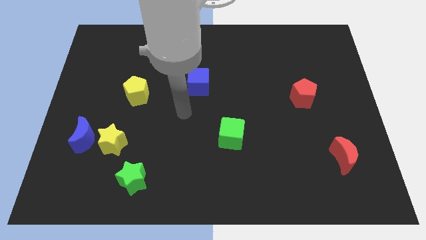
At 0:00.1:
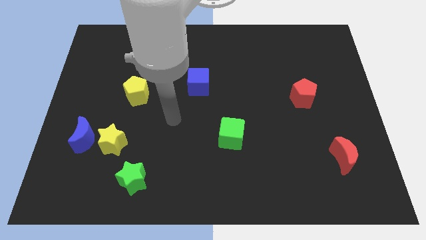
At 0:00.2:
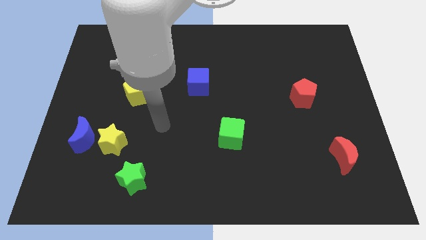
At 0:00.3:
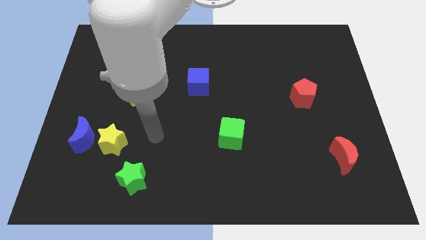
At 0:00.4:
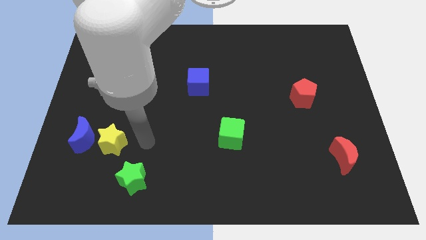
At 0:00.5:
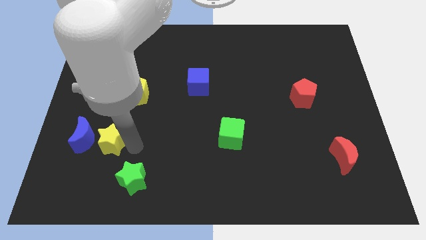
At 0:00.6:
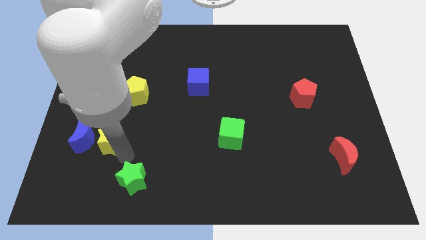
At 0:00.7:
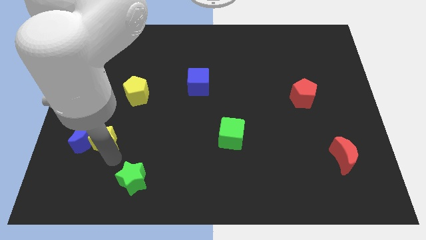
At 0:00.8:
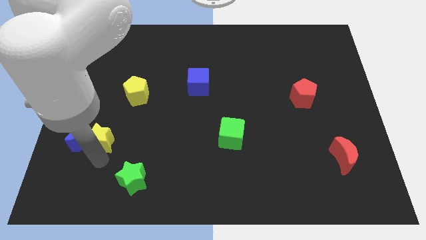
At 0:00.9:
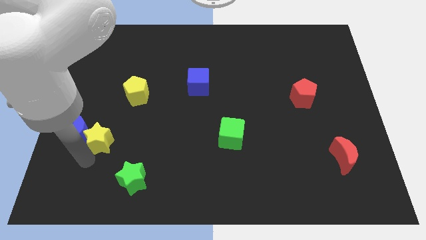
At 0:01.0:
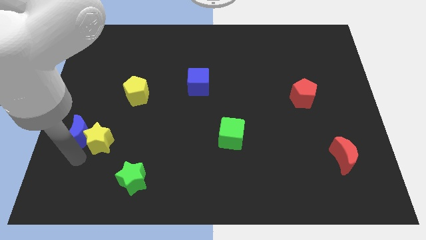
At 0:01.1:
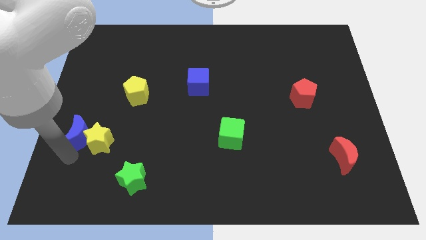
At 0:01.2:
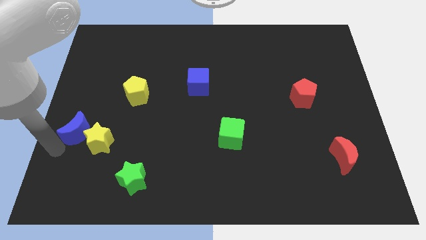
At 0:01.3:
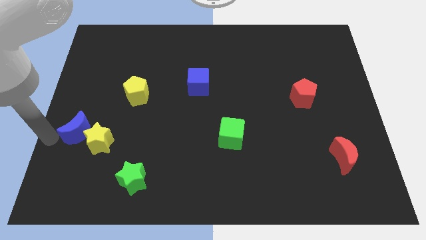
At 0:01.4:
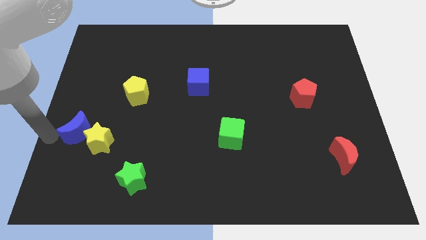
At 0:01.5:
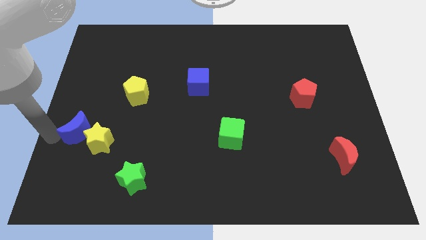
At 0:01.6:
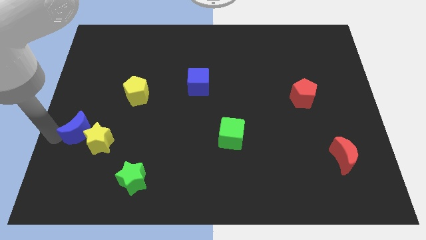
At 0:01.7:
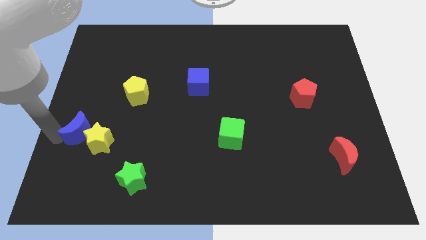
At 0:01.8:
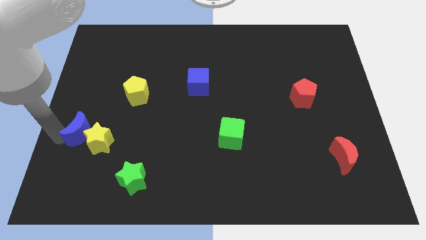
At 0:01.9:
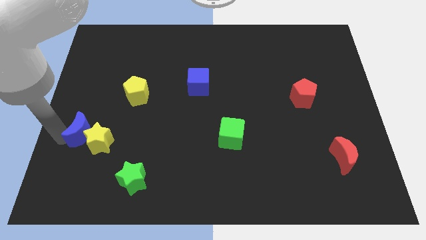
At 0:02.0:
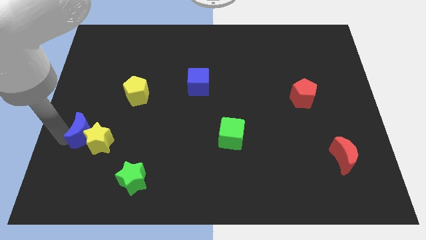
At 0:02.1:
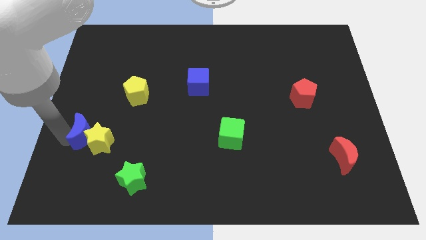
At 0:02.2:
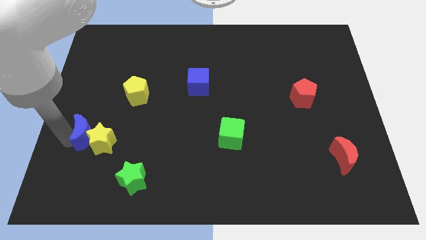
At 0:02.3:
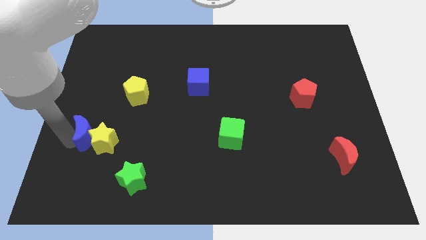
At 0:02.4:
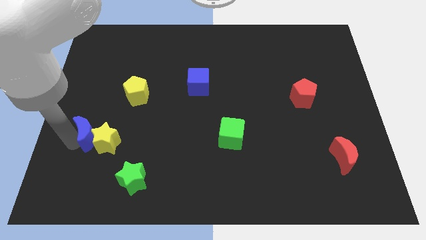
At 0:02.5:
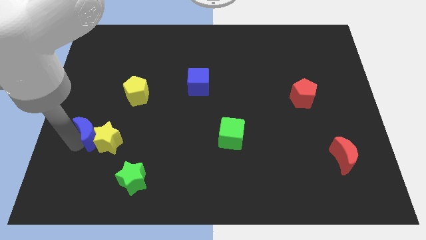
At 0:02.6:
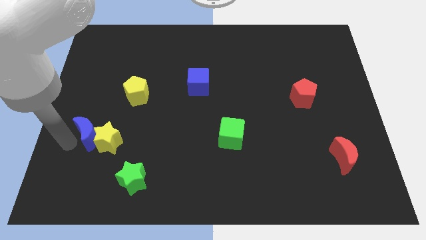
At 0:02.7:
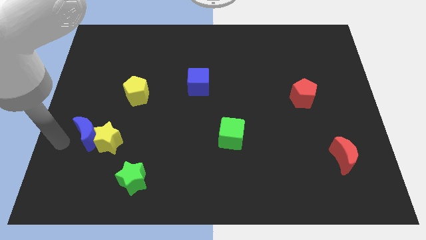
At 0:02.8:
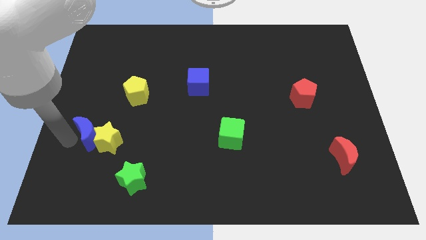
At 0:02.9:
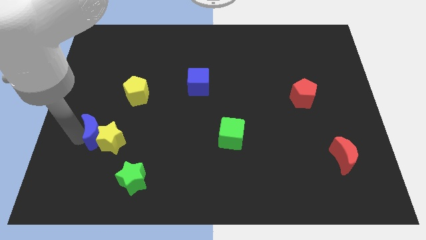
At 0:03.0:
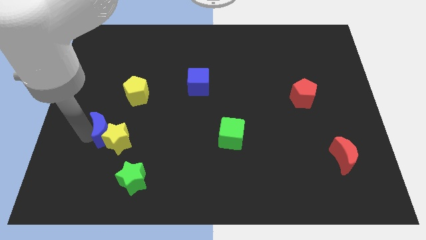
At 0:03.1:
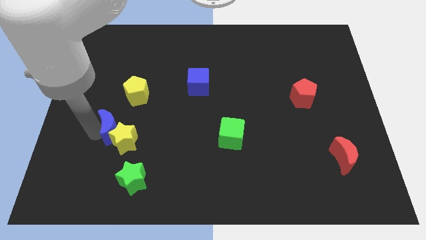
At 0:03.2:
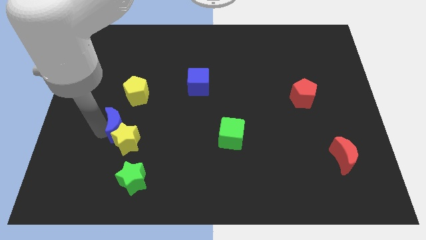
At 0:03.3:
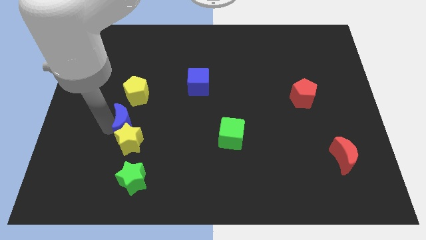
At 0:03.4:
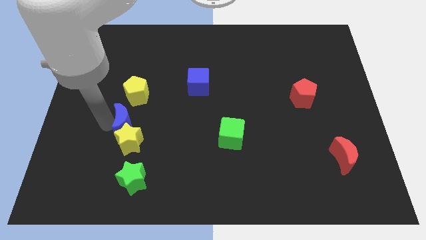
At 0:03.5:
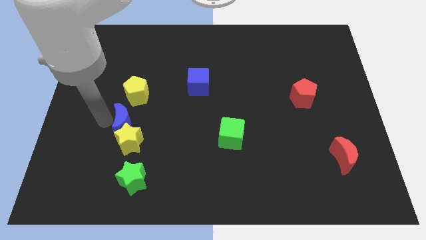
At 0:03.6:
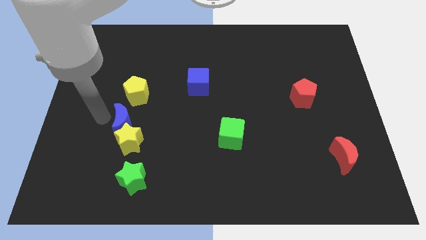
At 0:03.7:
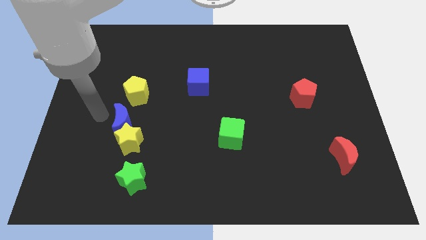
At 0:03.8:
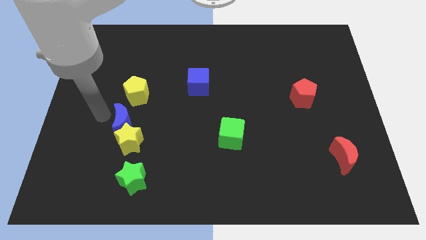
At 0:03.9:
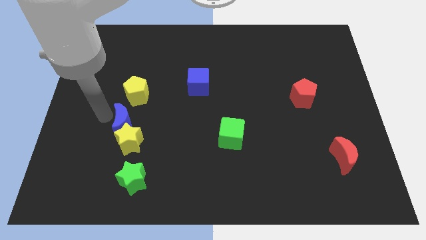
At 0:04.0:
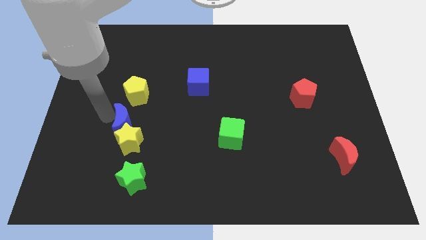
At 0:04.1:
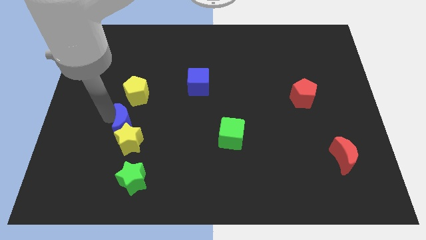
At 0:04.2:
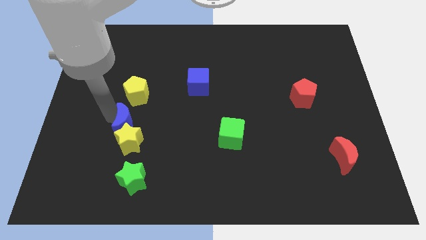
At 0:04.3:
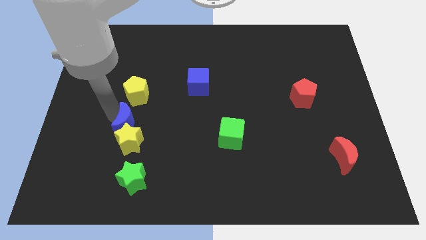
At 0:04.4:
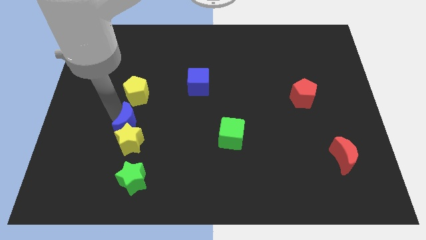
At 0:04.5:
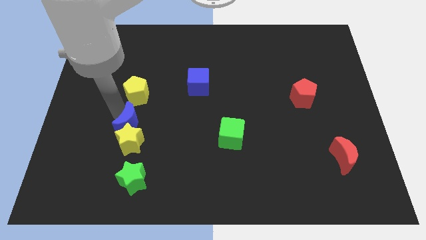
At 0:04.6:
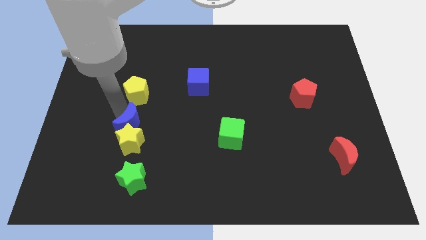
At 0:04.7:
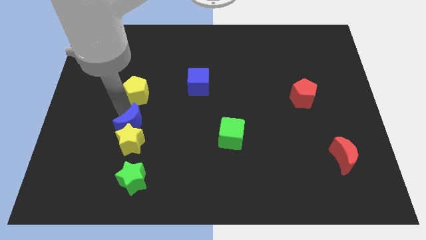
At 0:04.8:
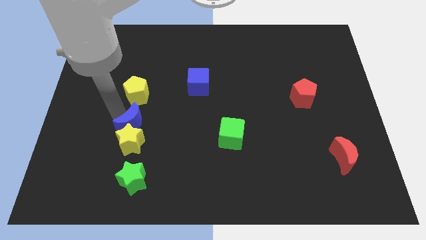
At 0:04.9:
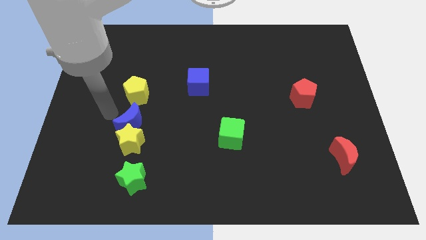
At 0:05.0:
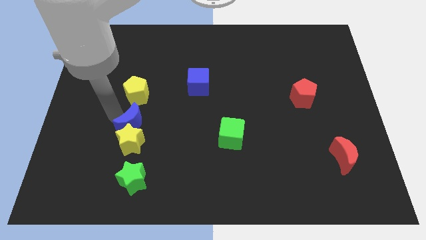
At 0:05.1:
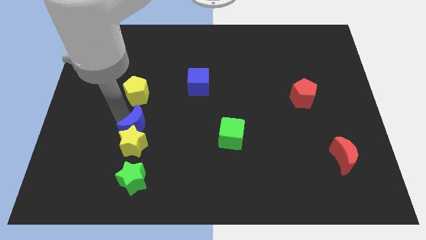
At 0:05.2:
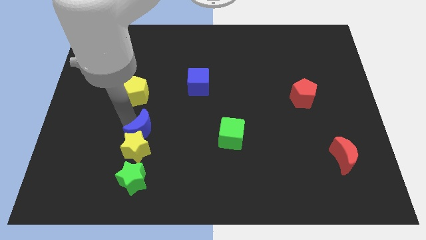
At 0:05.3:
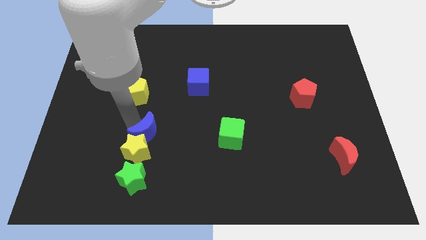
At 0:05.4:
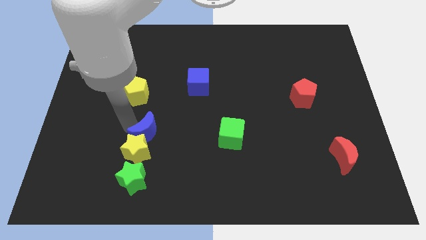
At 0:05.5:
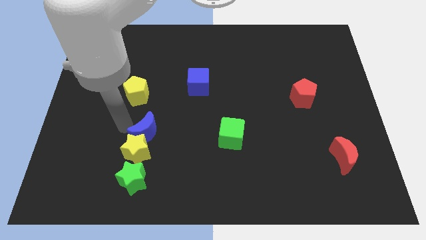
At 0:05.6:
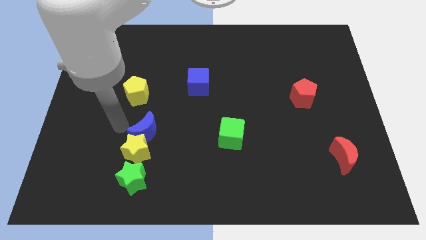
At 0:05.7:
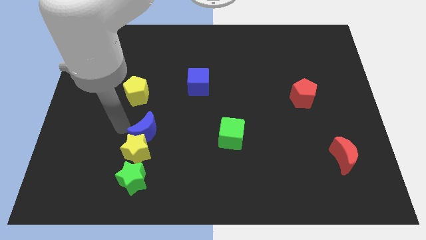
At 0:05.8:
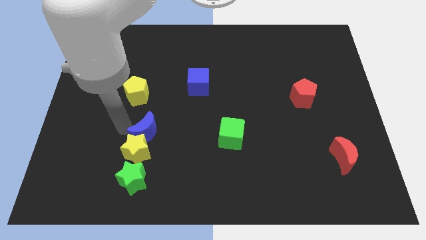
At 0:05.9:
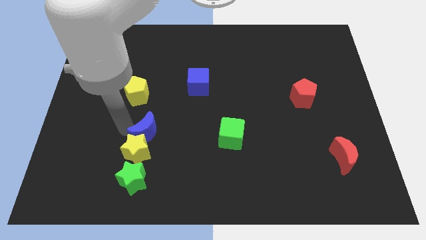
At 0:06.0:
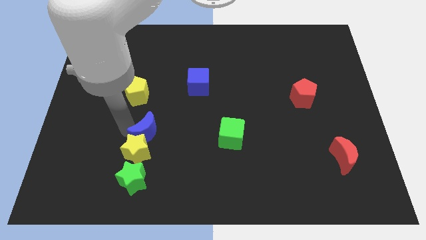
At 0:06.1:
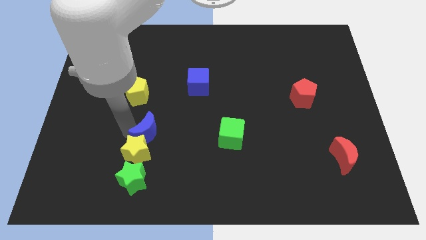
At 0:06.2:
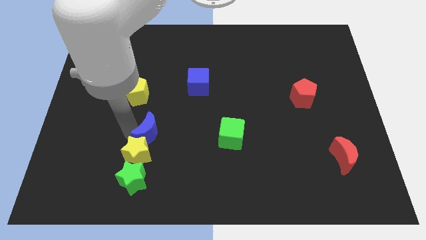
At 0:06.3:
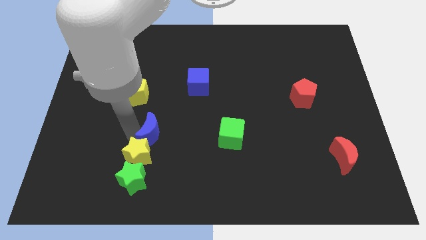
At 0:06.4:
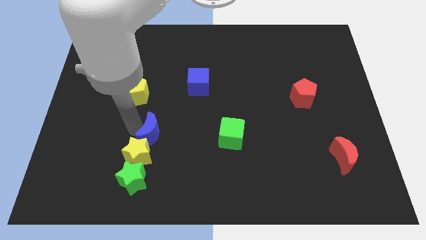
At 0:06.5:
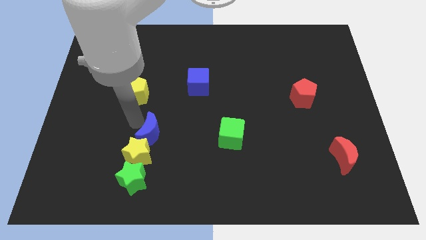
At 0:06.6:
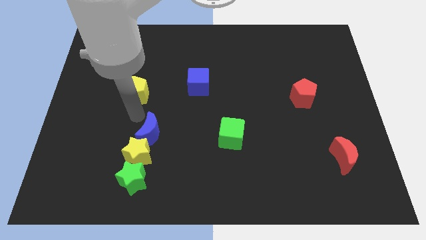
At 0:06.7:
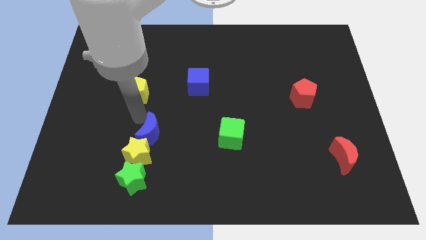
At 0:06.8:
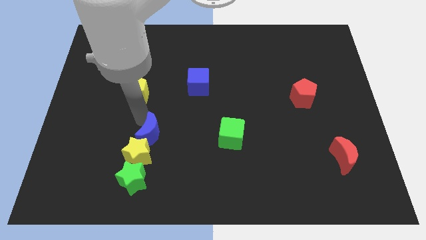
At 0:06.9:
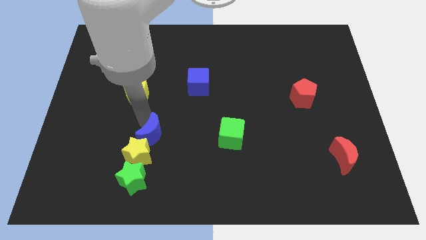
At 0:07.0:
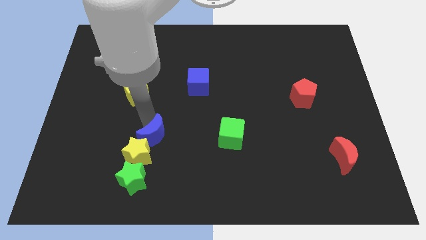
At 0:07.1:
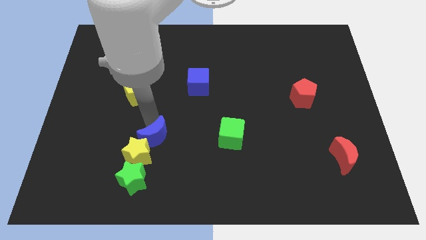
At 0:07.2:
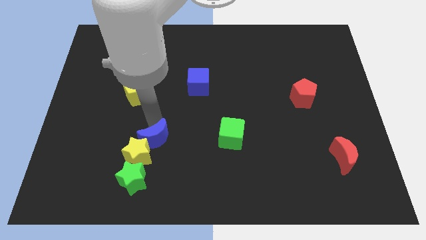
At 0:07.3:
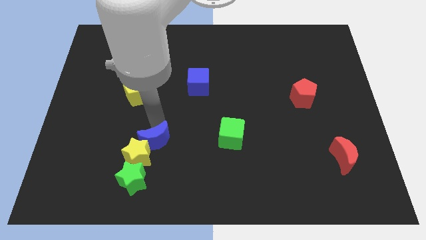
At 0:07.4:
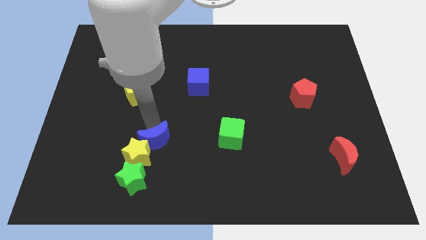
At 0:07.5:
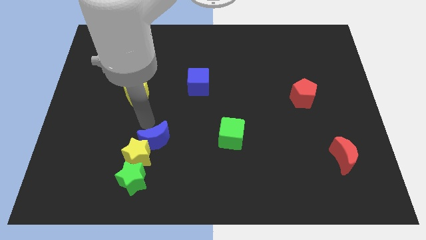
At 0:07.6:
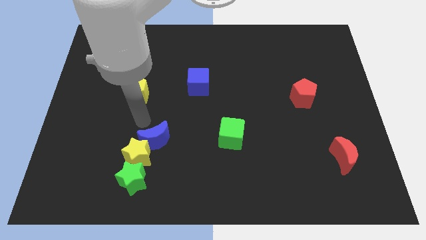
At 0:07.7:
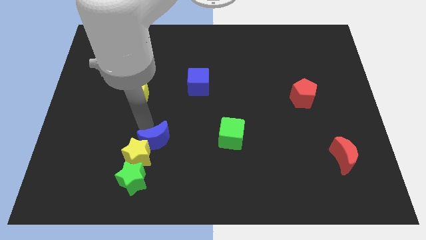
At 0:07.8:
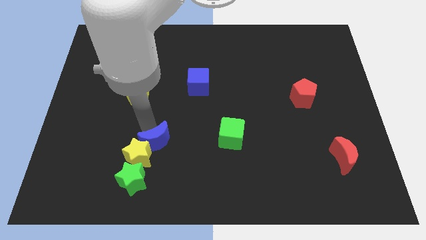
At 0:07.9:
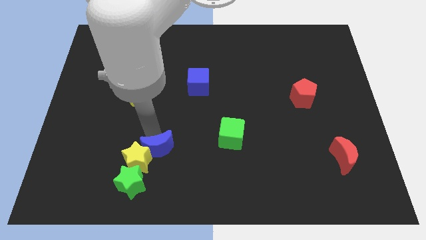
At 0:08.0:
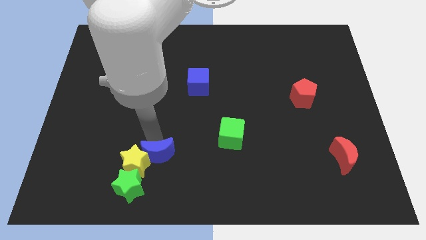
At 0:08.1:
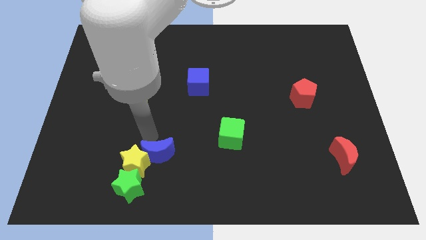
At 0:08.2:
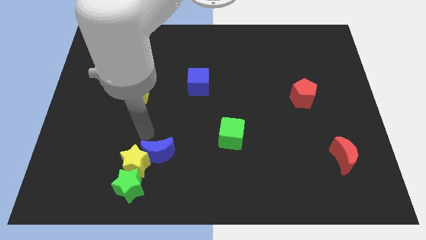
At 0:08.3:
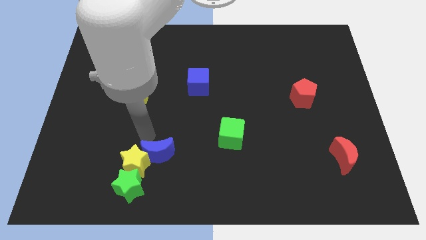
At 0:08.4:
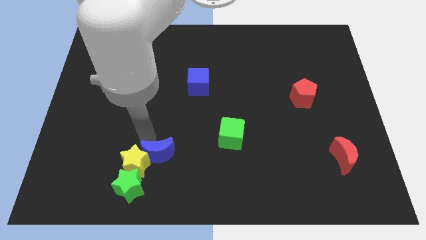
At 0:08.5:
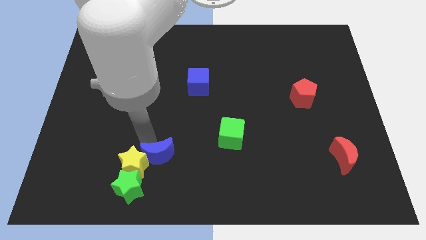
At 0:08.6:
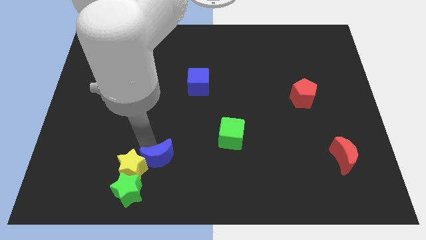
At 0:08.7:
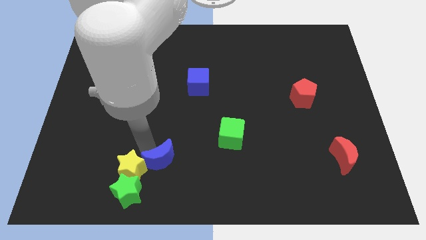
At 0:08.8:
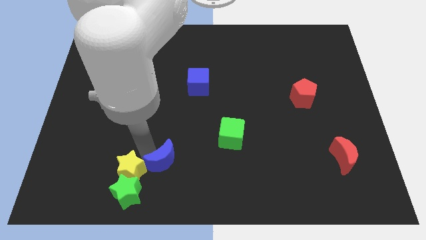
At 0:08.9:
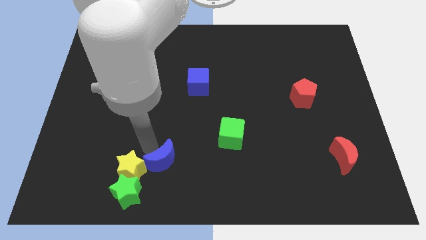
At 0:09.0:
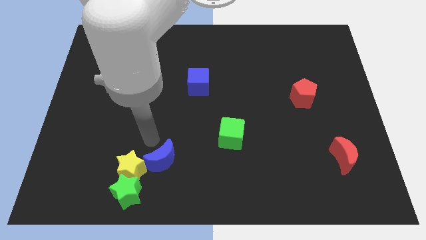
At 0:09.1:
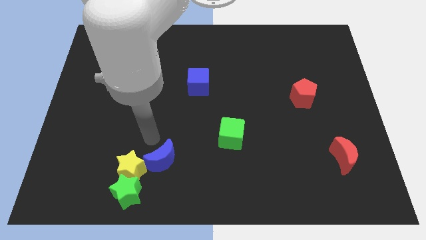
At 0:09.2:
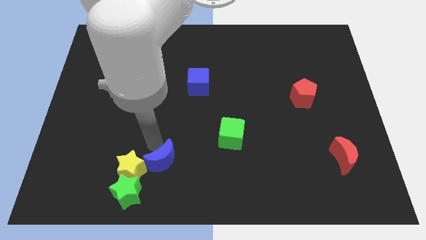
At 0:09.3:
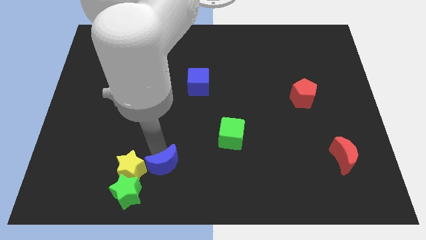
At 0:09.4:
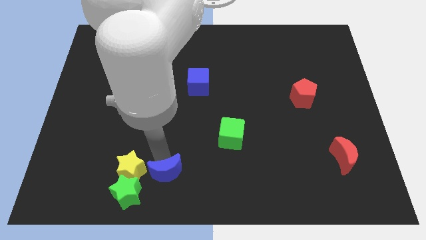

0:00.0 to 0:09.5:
push the blue moon to the right of the green star
